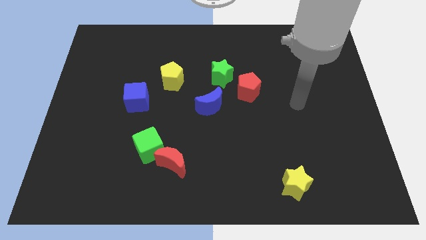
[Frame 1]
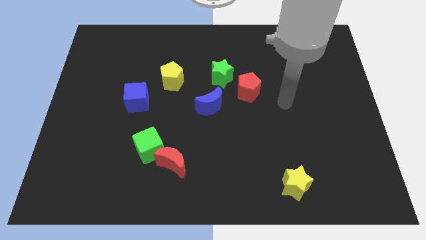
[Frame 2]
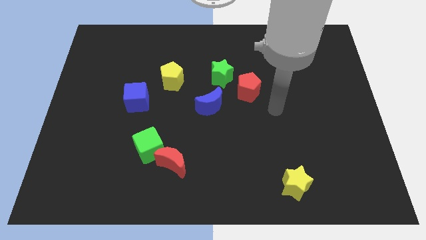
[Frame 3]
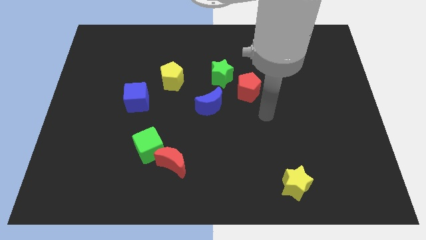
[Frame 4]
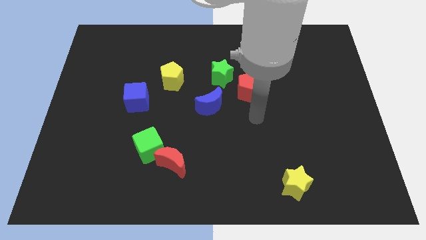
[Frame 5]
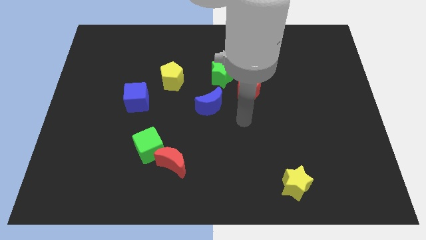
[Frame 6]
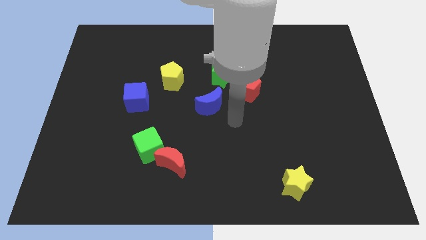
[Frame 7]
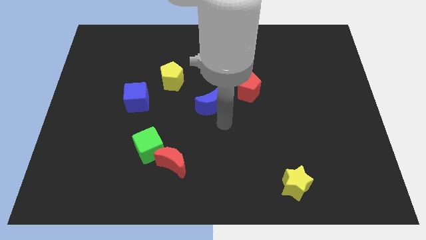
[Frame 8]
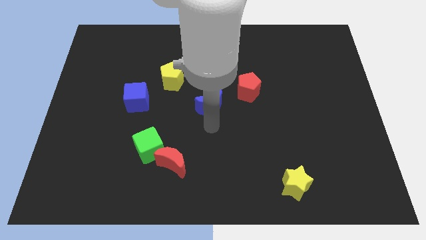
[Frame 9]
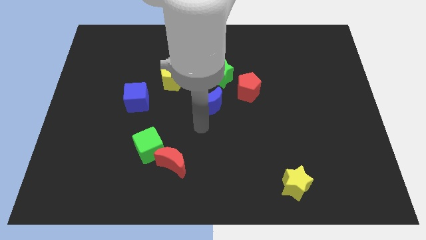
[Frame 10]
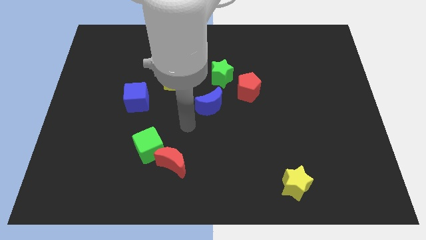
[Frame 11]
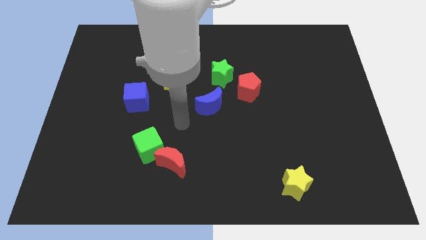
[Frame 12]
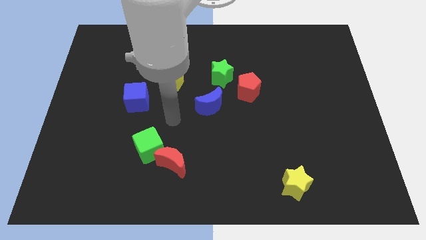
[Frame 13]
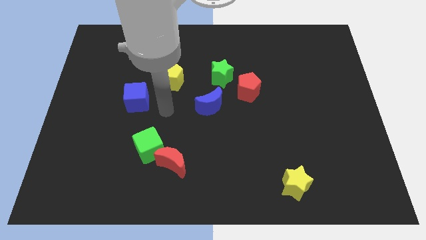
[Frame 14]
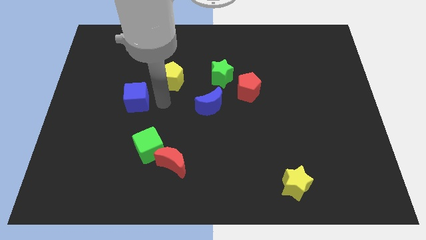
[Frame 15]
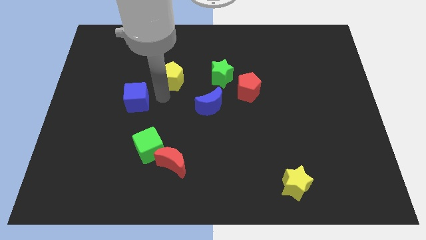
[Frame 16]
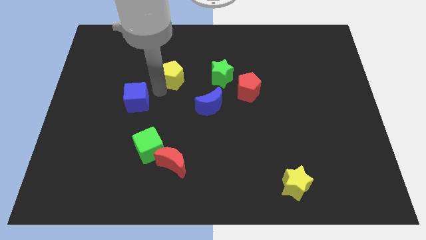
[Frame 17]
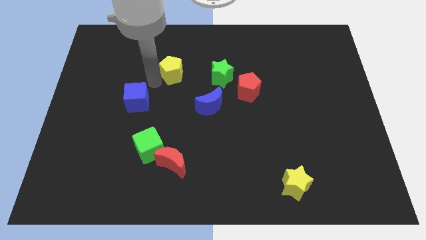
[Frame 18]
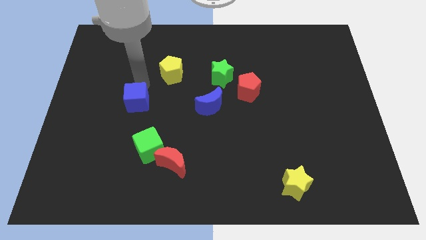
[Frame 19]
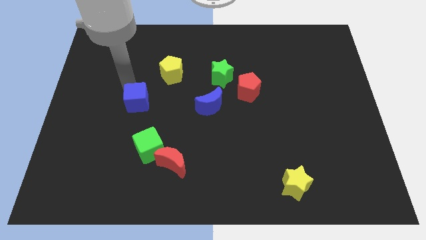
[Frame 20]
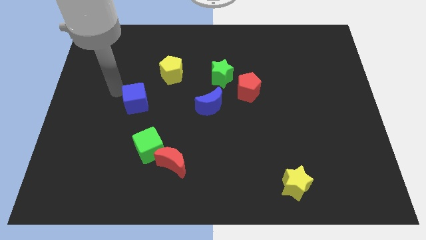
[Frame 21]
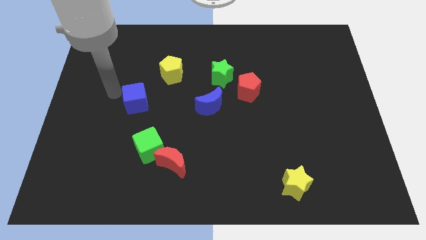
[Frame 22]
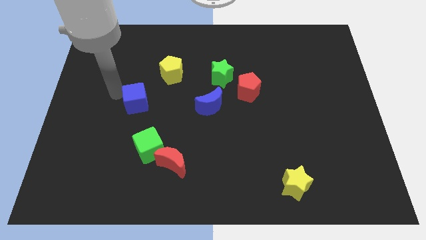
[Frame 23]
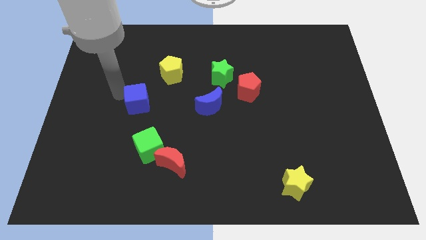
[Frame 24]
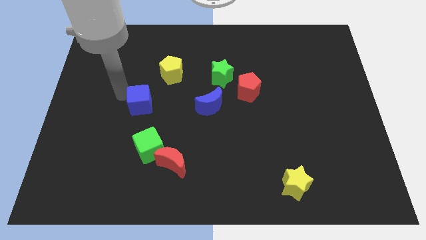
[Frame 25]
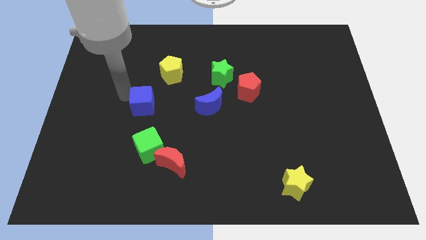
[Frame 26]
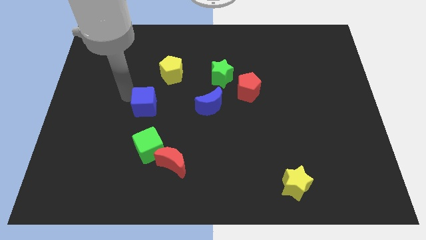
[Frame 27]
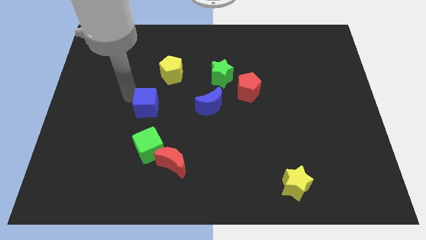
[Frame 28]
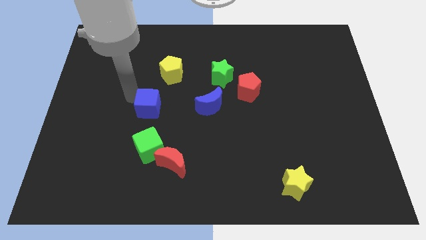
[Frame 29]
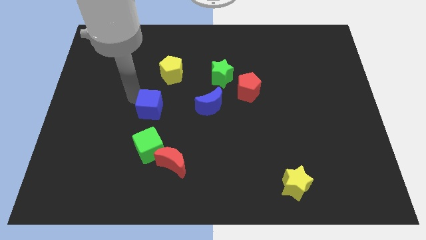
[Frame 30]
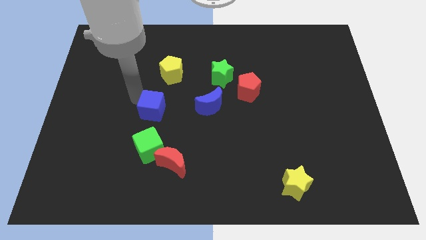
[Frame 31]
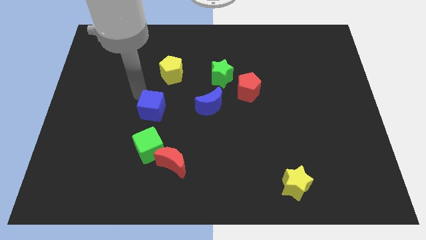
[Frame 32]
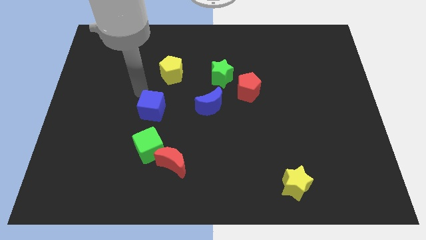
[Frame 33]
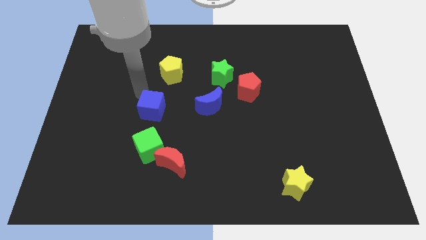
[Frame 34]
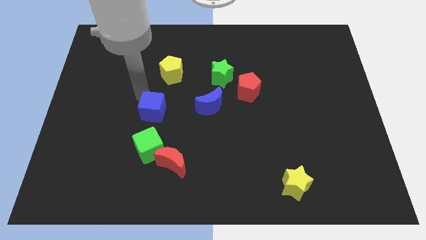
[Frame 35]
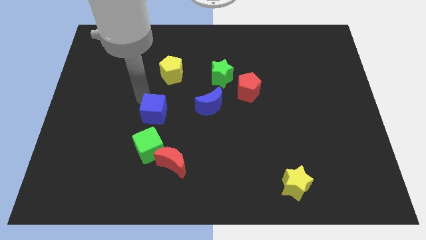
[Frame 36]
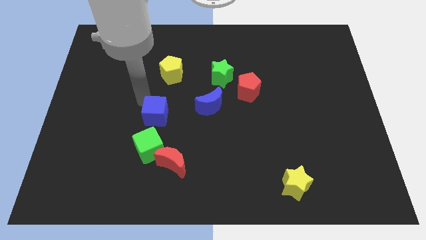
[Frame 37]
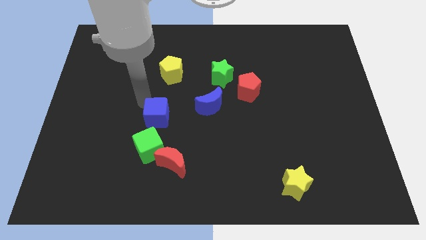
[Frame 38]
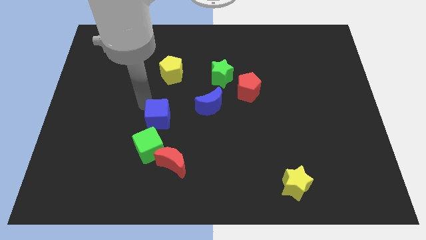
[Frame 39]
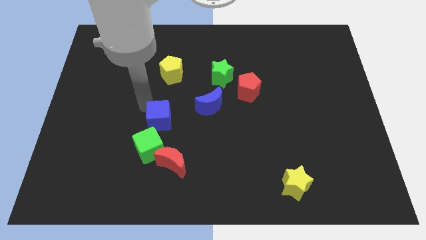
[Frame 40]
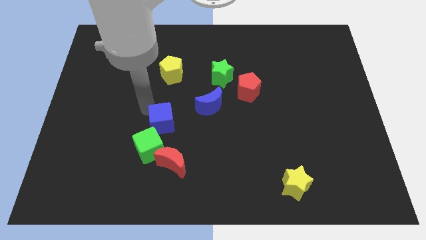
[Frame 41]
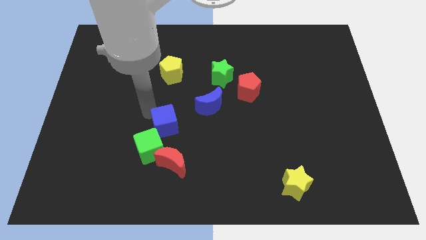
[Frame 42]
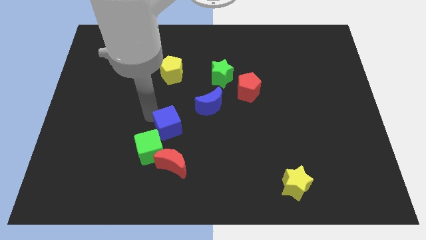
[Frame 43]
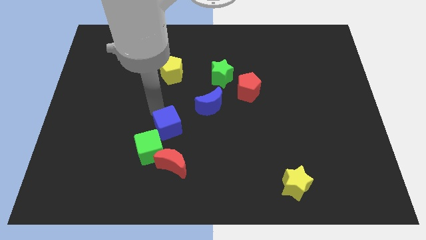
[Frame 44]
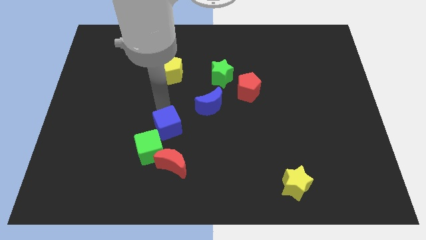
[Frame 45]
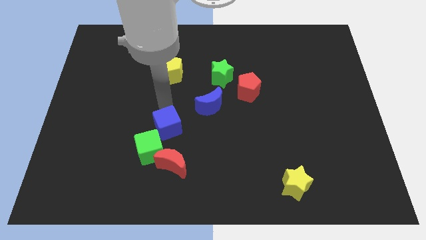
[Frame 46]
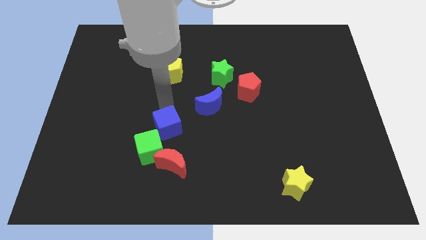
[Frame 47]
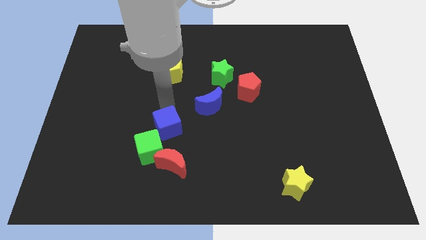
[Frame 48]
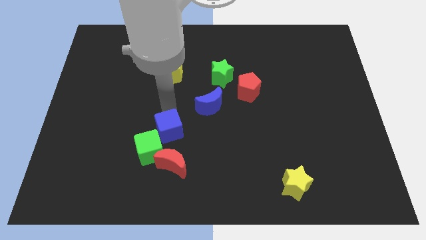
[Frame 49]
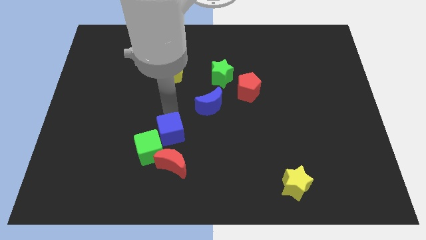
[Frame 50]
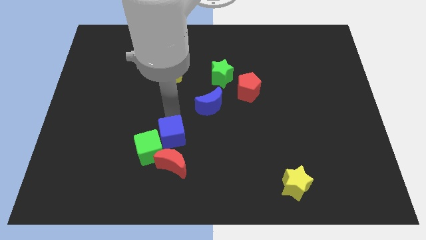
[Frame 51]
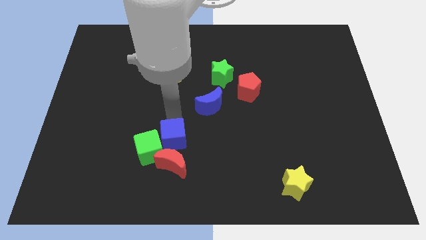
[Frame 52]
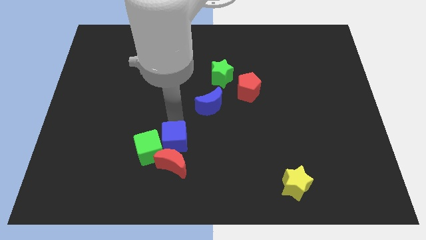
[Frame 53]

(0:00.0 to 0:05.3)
push the blue cube next to the red moon

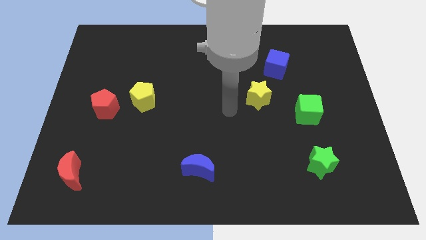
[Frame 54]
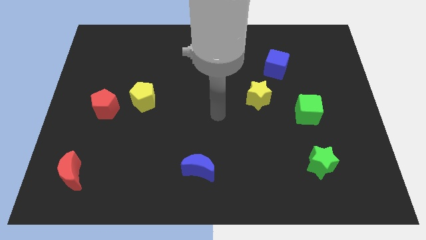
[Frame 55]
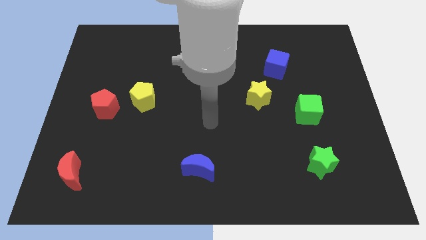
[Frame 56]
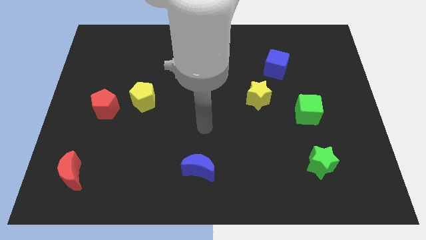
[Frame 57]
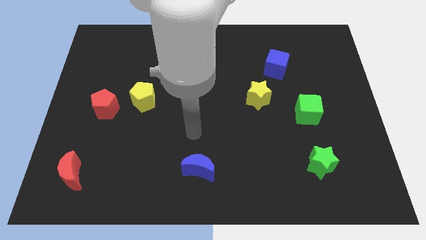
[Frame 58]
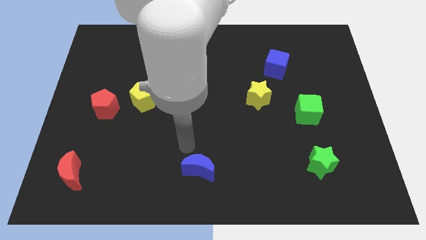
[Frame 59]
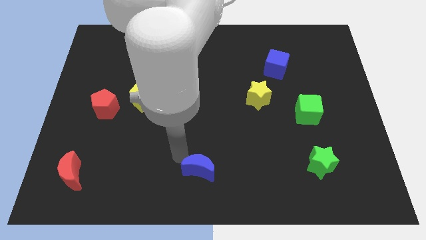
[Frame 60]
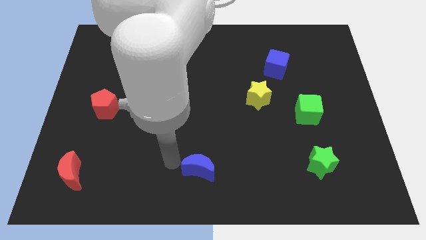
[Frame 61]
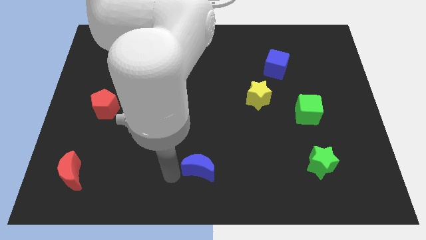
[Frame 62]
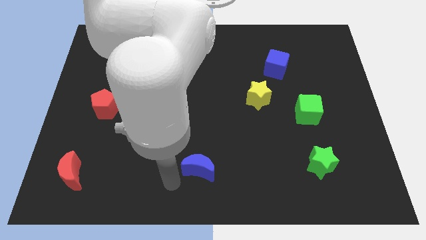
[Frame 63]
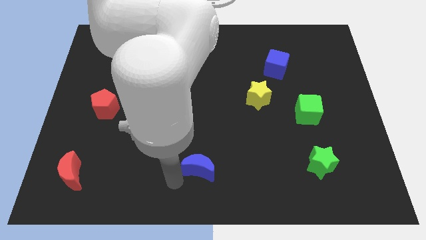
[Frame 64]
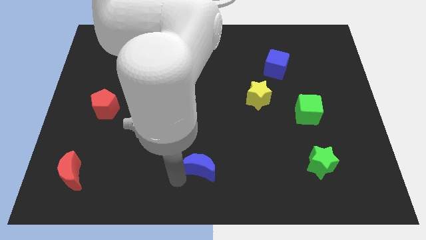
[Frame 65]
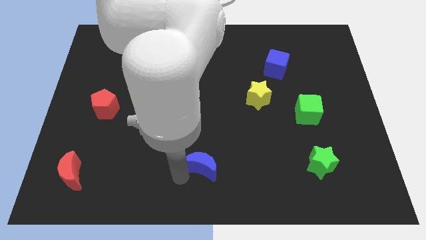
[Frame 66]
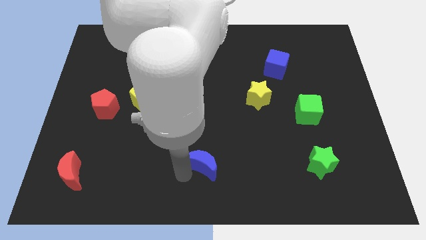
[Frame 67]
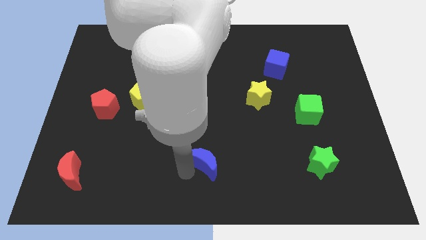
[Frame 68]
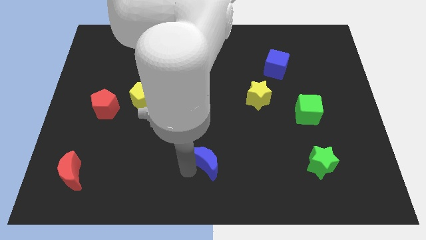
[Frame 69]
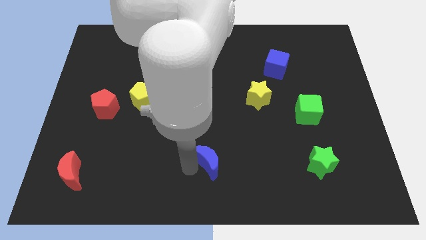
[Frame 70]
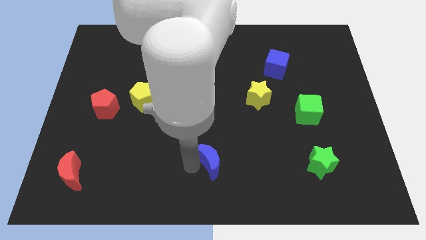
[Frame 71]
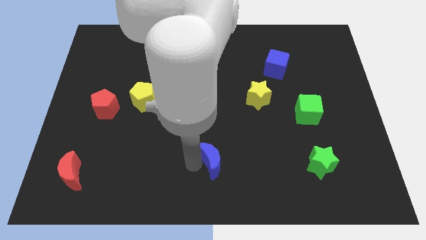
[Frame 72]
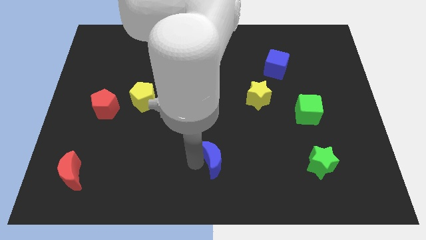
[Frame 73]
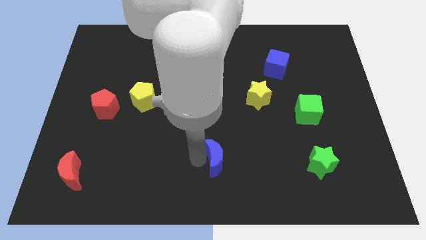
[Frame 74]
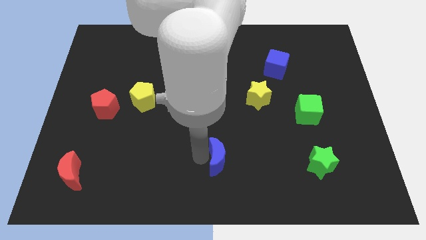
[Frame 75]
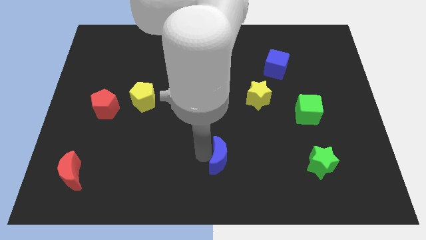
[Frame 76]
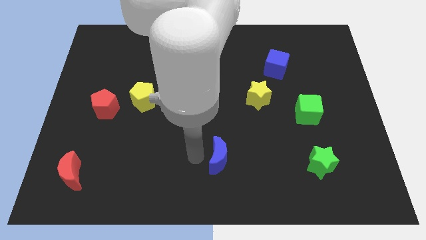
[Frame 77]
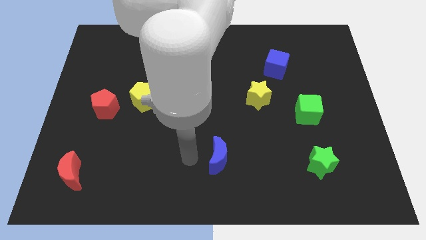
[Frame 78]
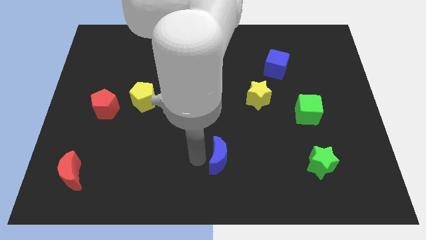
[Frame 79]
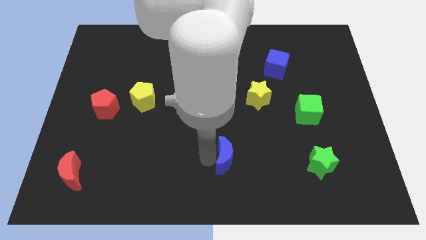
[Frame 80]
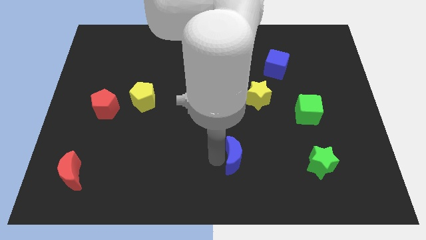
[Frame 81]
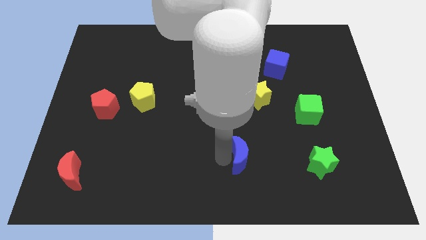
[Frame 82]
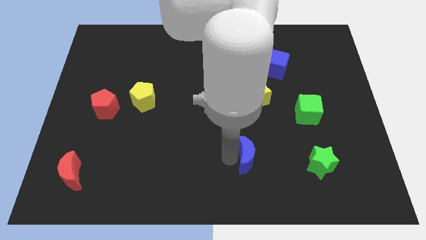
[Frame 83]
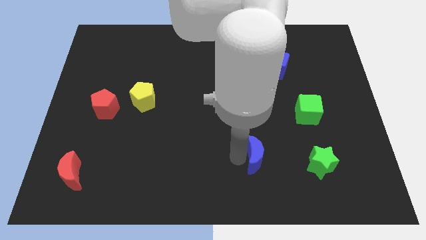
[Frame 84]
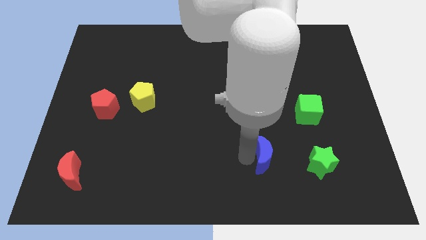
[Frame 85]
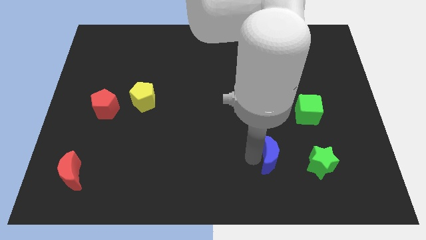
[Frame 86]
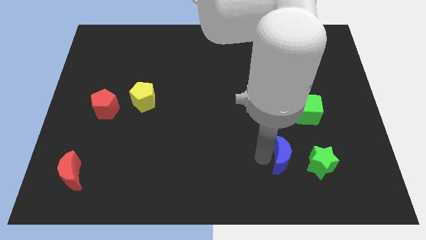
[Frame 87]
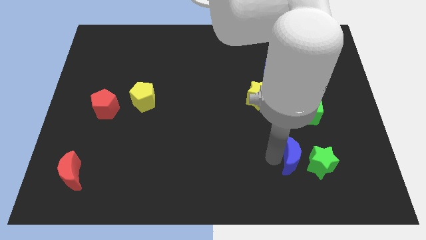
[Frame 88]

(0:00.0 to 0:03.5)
slide the blue moon to the green star
